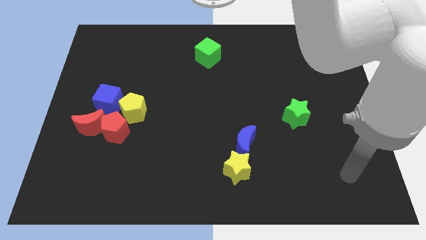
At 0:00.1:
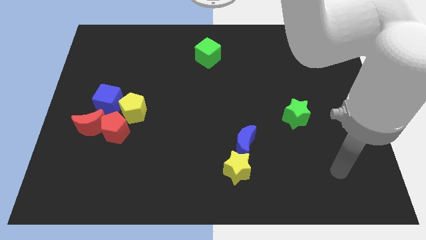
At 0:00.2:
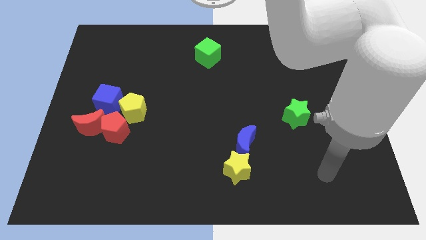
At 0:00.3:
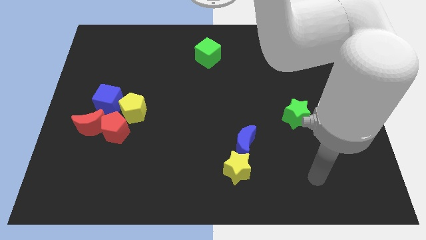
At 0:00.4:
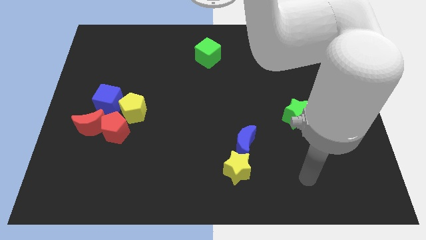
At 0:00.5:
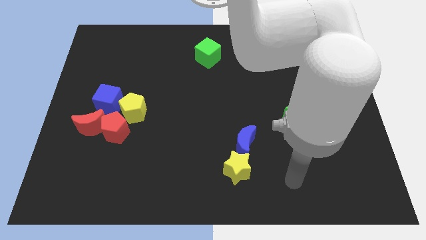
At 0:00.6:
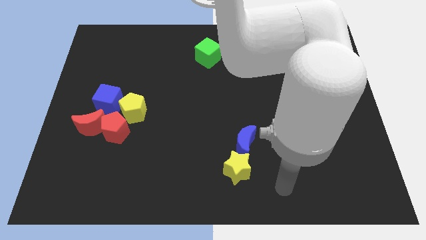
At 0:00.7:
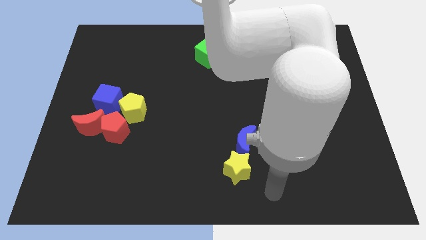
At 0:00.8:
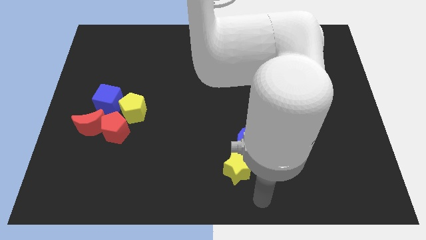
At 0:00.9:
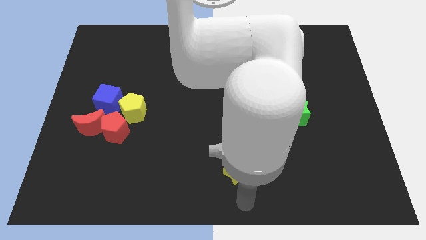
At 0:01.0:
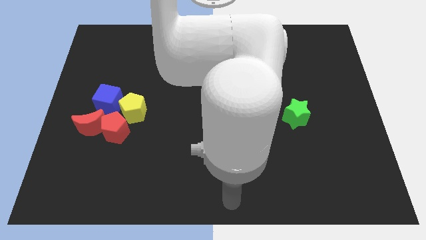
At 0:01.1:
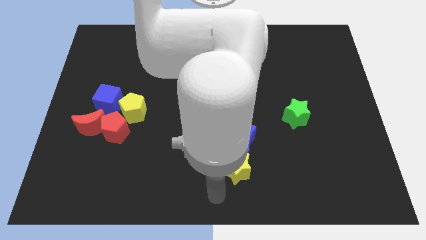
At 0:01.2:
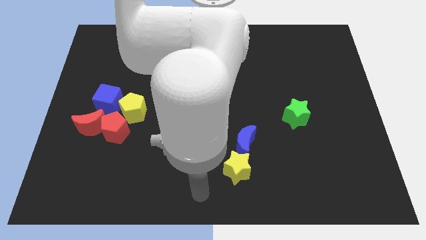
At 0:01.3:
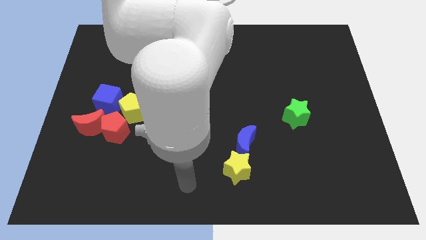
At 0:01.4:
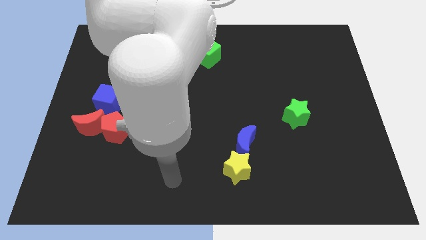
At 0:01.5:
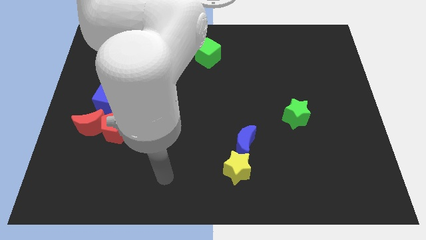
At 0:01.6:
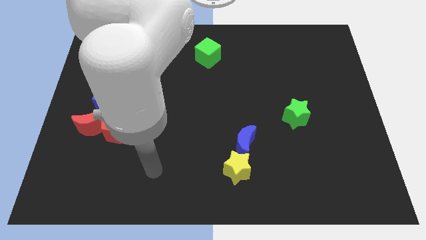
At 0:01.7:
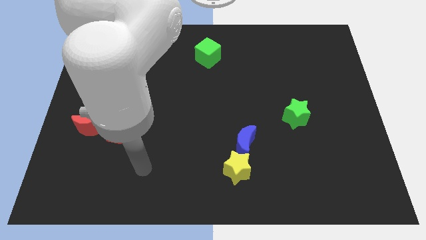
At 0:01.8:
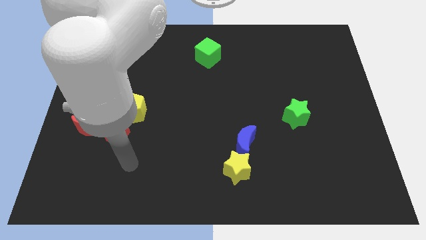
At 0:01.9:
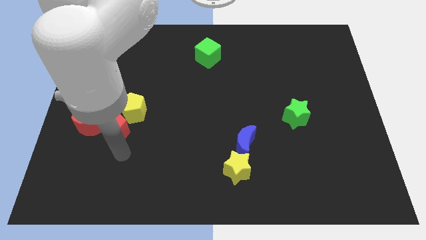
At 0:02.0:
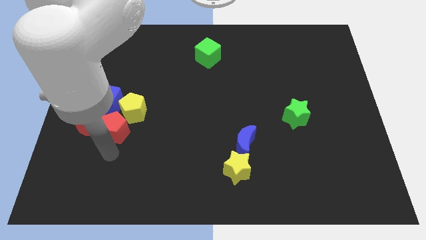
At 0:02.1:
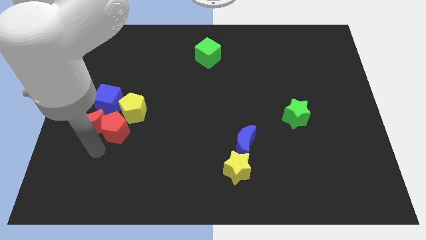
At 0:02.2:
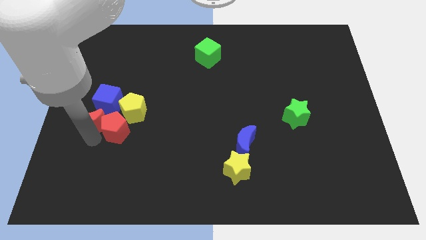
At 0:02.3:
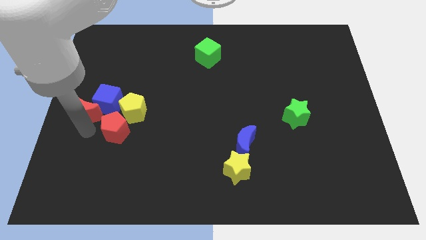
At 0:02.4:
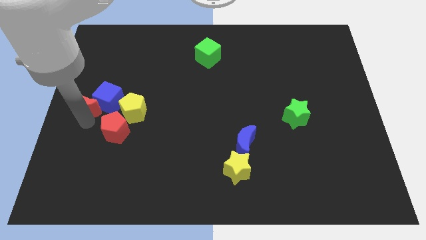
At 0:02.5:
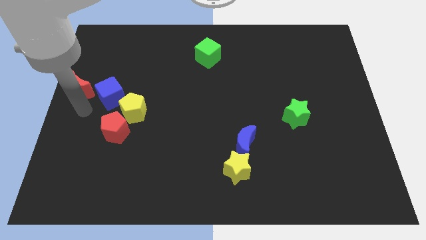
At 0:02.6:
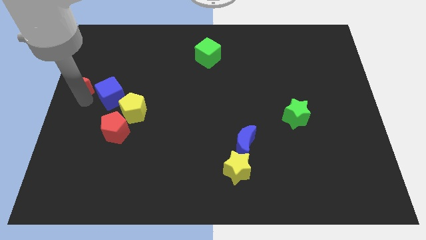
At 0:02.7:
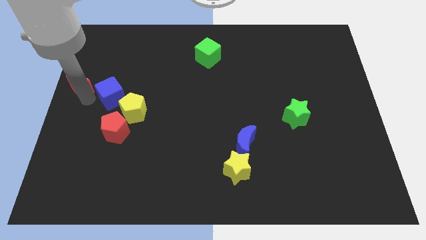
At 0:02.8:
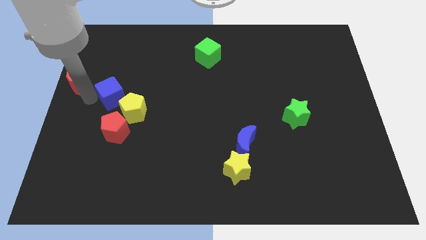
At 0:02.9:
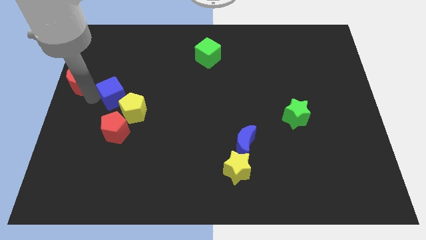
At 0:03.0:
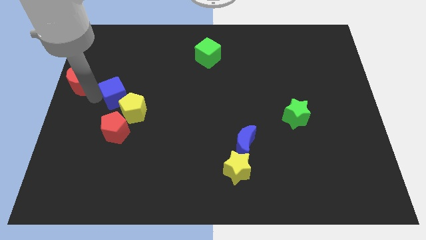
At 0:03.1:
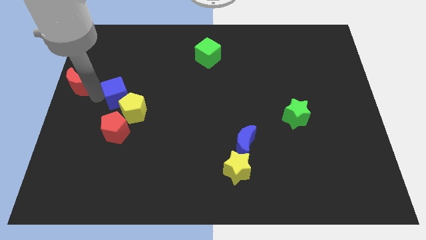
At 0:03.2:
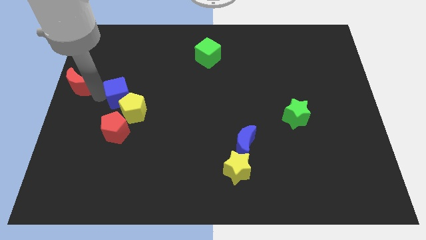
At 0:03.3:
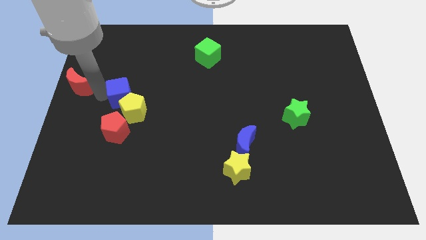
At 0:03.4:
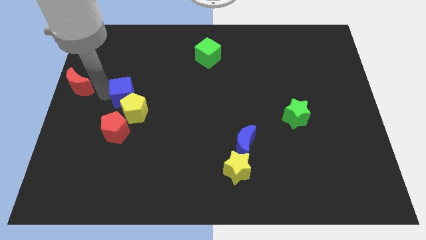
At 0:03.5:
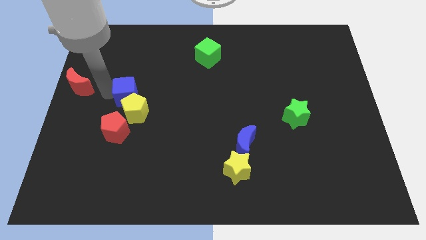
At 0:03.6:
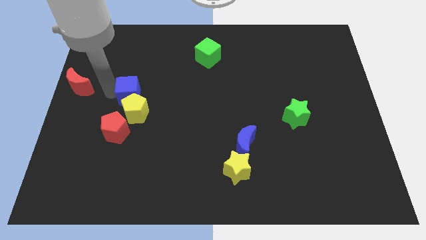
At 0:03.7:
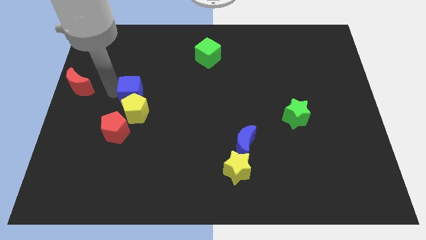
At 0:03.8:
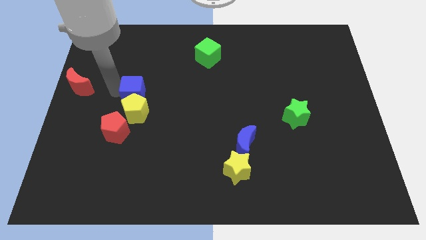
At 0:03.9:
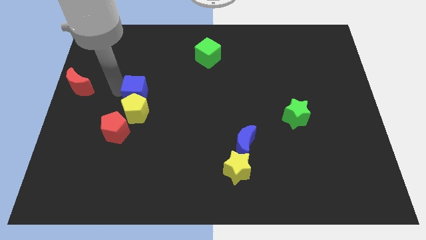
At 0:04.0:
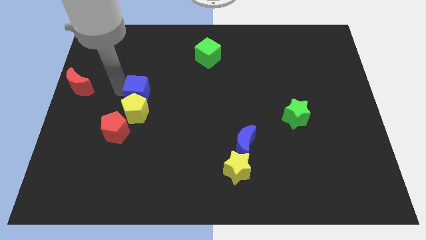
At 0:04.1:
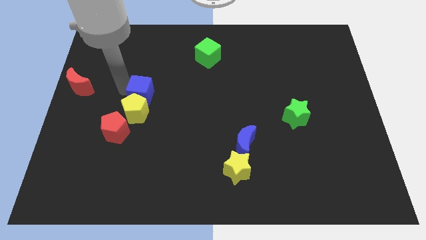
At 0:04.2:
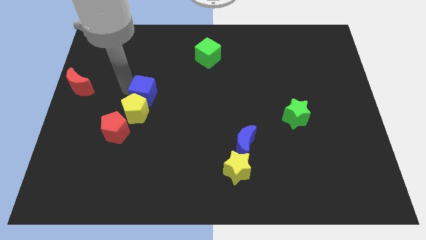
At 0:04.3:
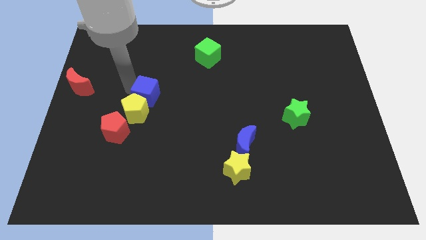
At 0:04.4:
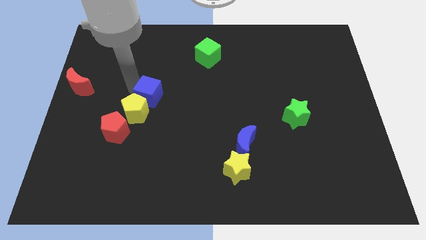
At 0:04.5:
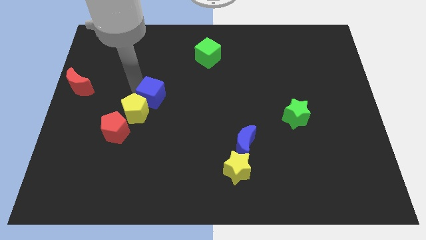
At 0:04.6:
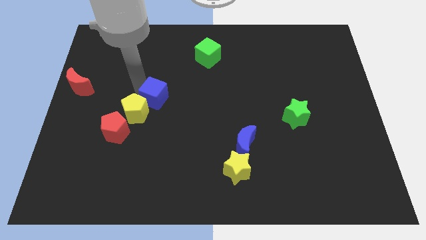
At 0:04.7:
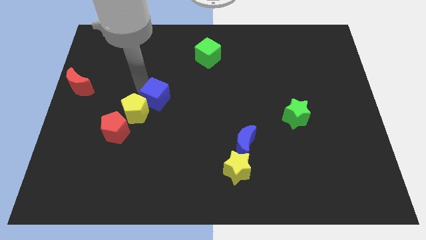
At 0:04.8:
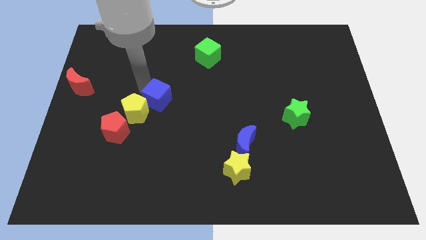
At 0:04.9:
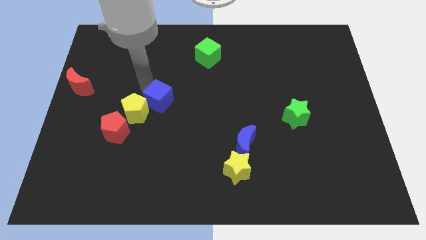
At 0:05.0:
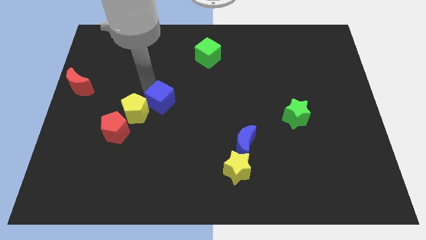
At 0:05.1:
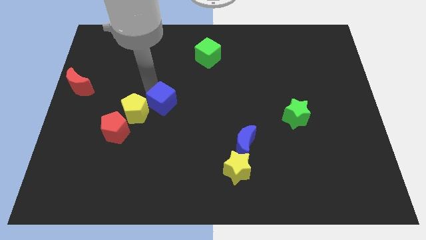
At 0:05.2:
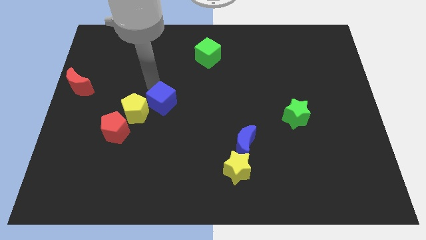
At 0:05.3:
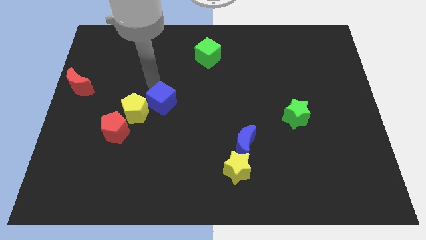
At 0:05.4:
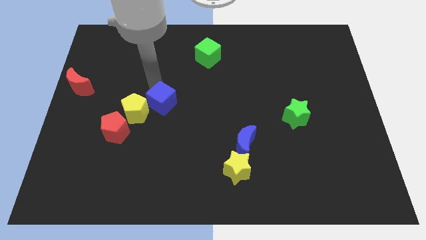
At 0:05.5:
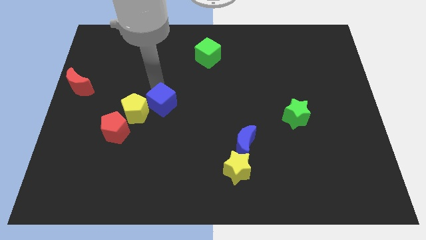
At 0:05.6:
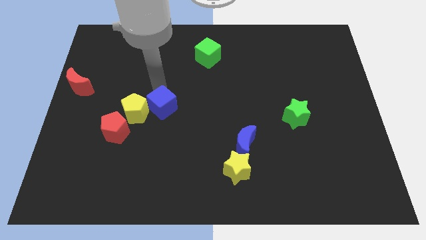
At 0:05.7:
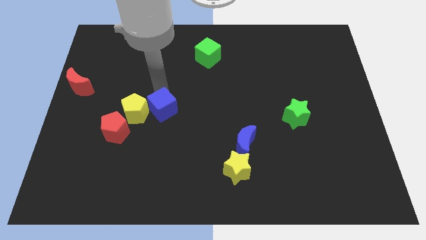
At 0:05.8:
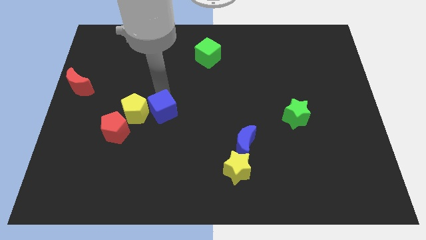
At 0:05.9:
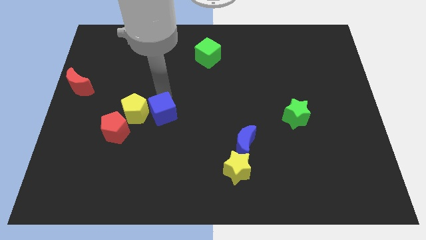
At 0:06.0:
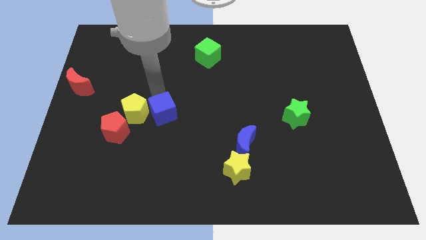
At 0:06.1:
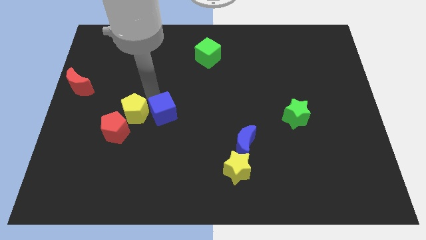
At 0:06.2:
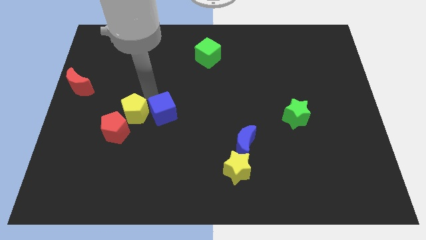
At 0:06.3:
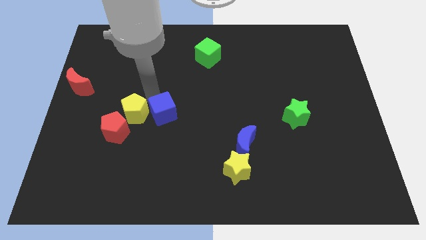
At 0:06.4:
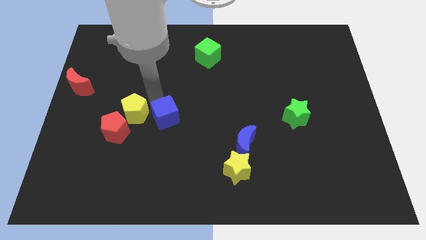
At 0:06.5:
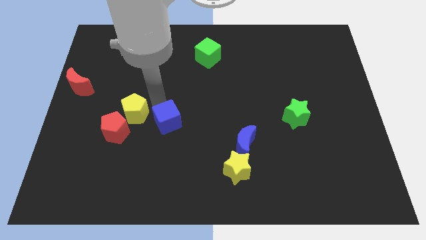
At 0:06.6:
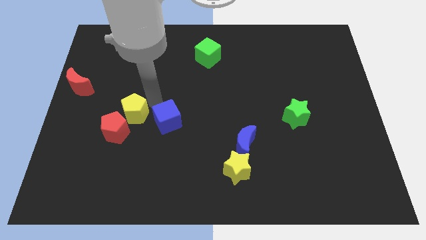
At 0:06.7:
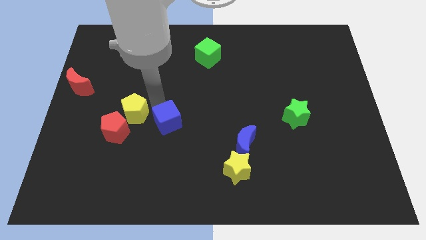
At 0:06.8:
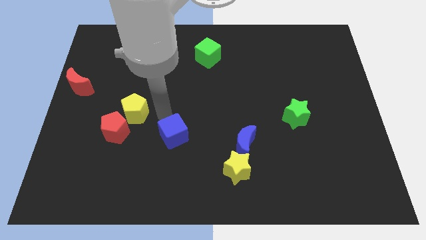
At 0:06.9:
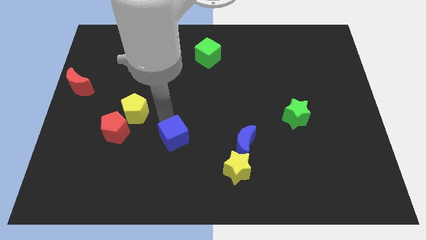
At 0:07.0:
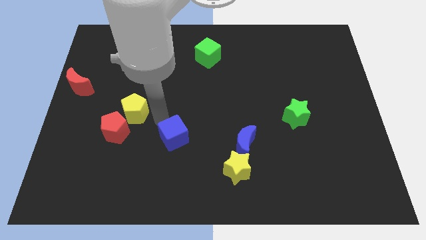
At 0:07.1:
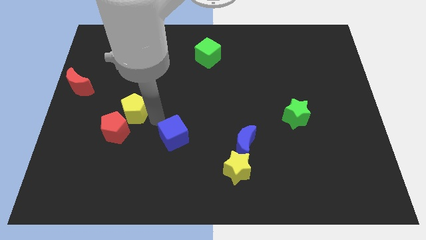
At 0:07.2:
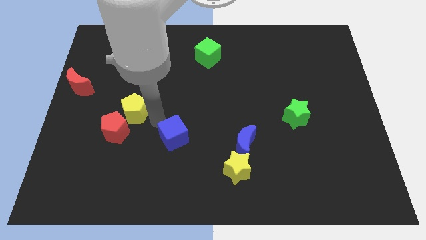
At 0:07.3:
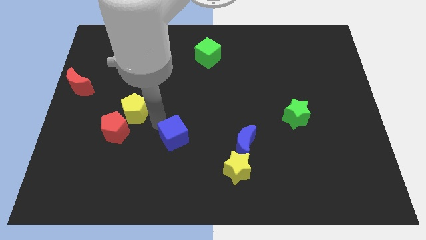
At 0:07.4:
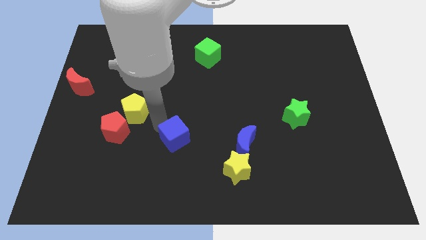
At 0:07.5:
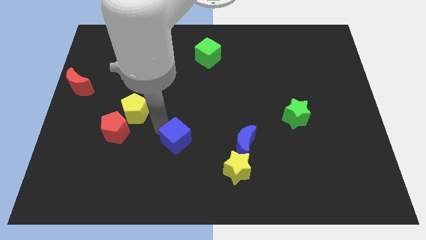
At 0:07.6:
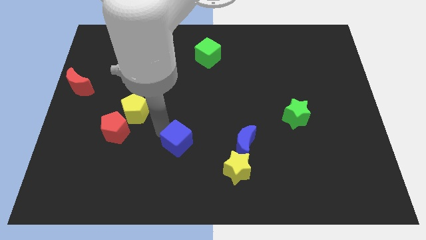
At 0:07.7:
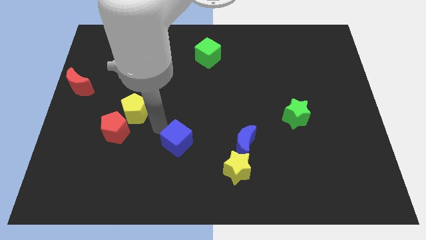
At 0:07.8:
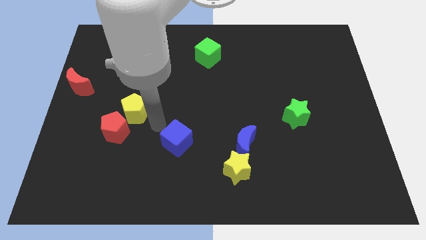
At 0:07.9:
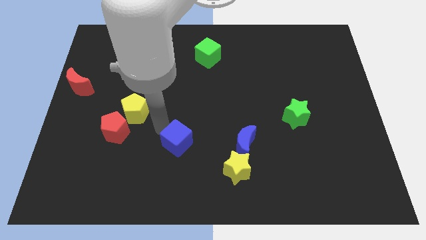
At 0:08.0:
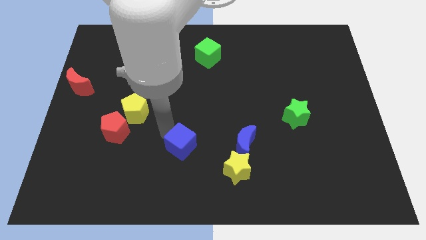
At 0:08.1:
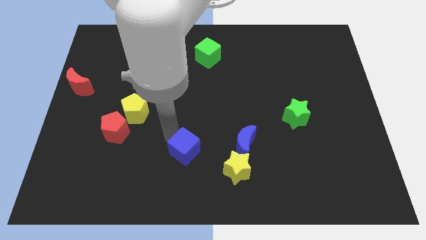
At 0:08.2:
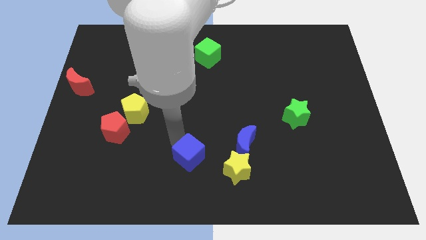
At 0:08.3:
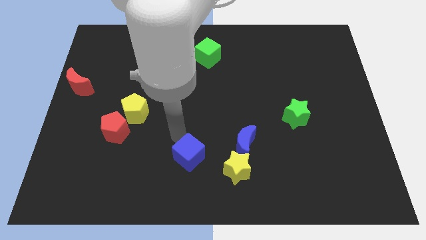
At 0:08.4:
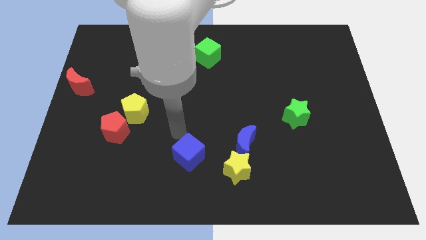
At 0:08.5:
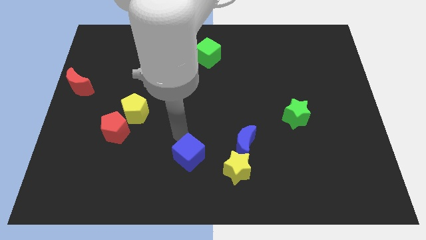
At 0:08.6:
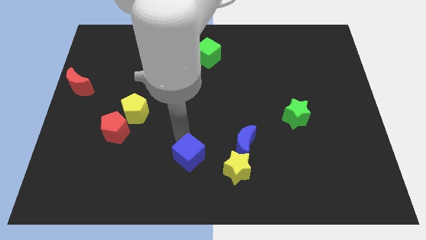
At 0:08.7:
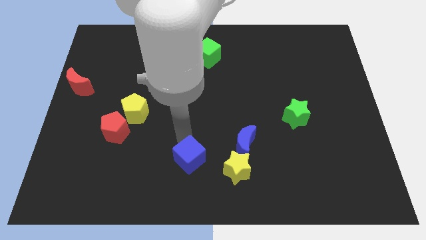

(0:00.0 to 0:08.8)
move the blue cube to the bottom
